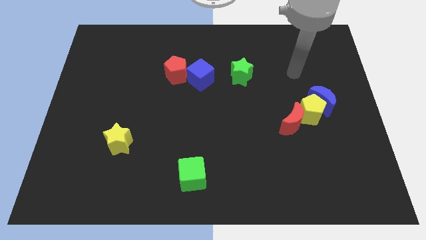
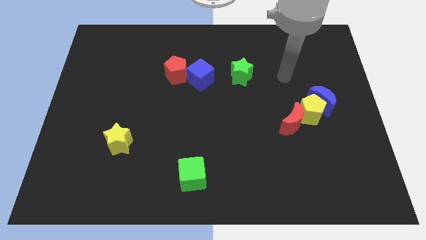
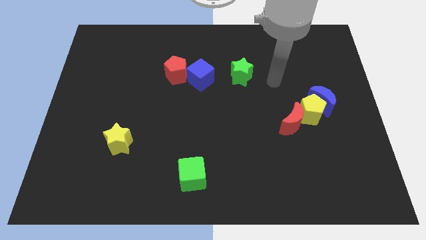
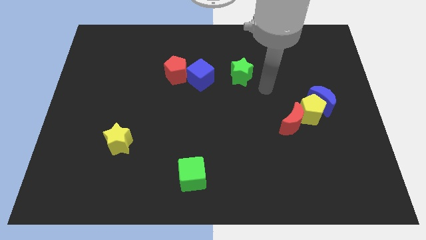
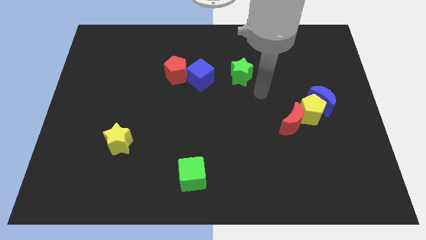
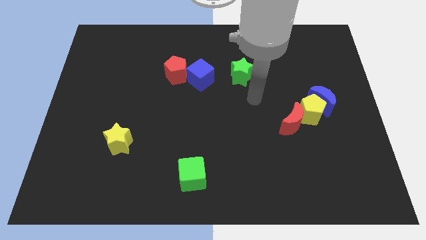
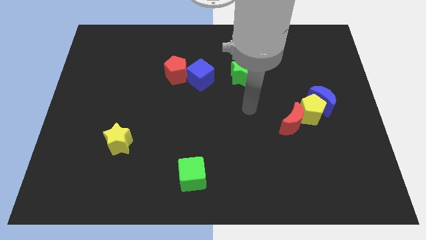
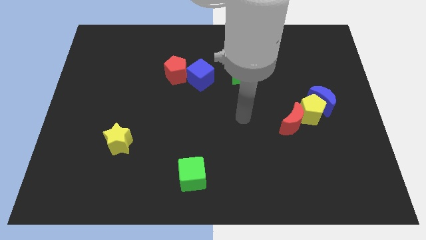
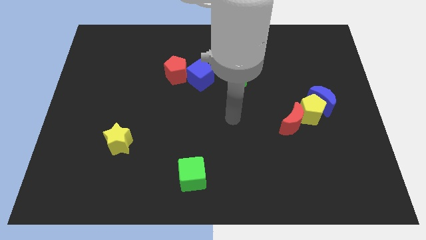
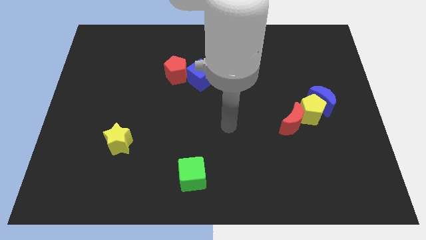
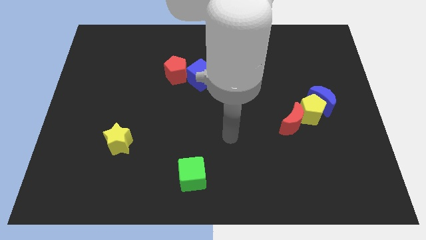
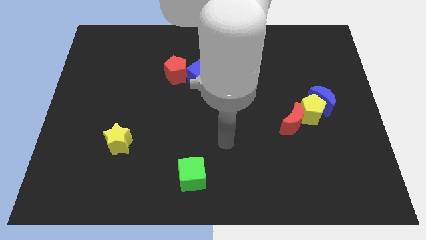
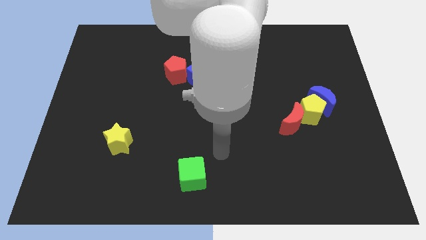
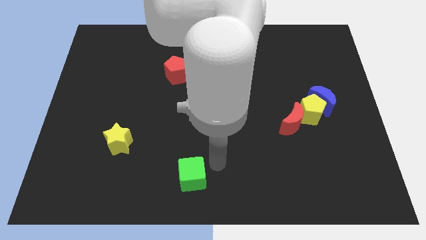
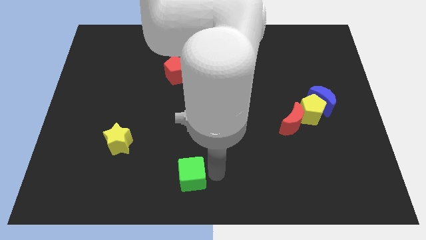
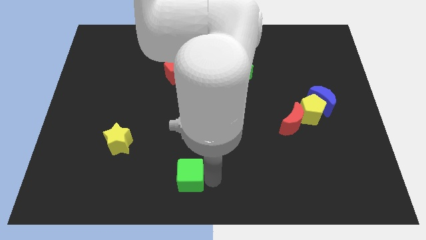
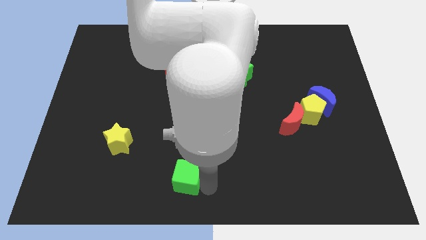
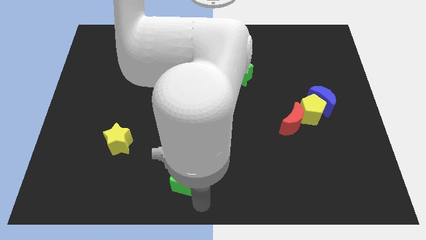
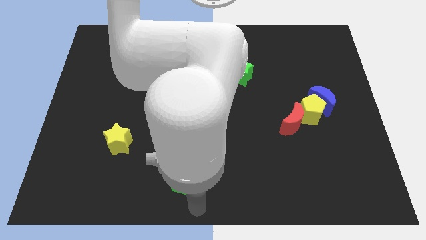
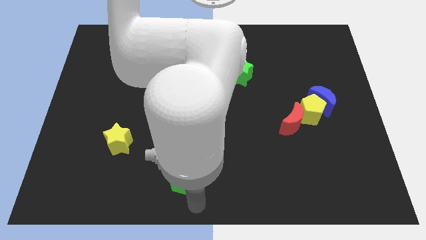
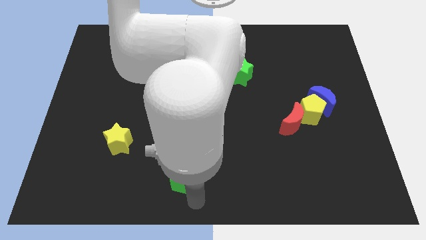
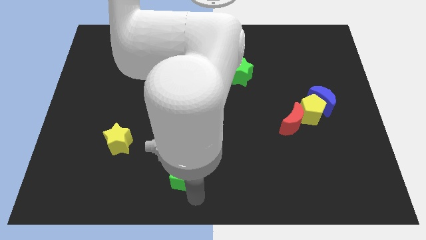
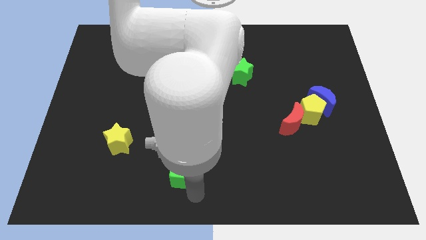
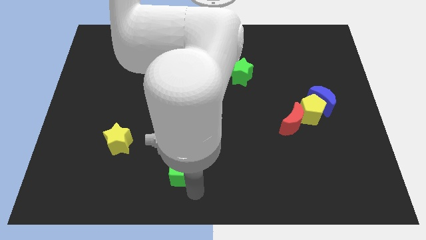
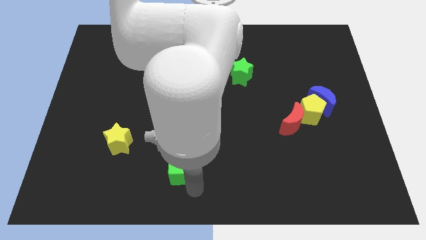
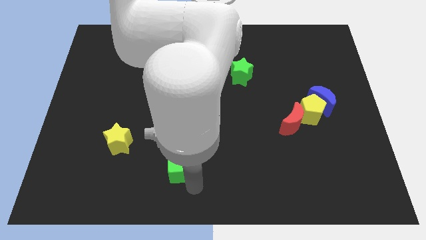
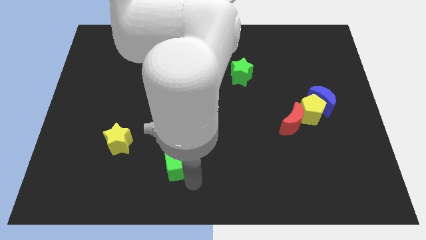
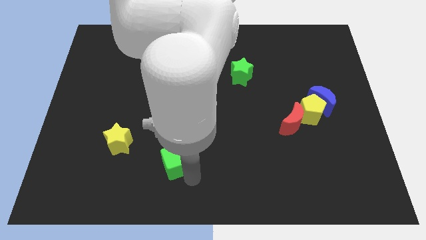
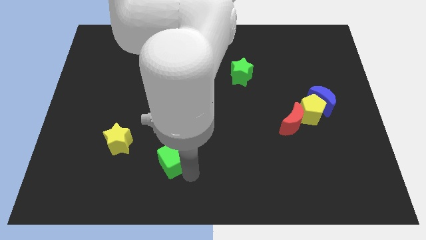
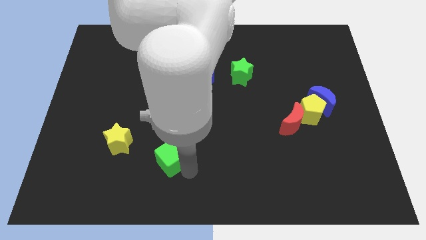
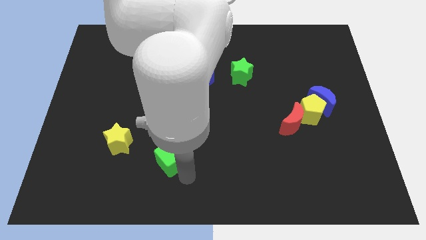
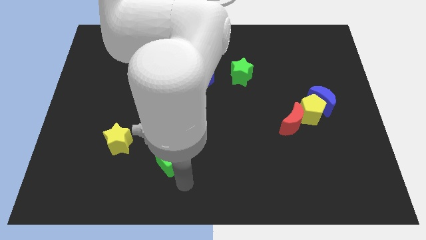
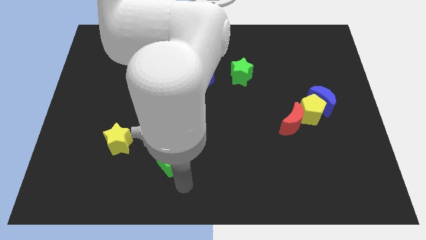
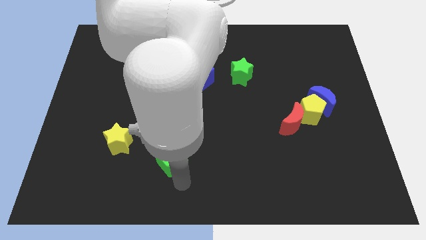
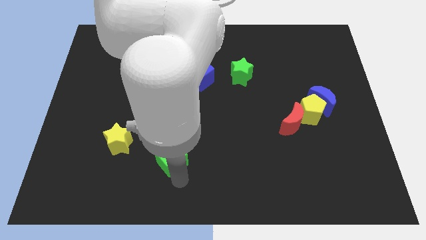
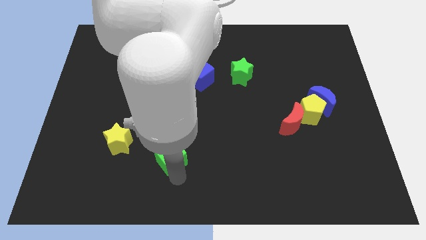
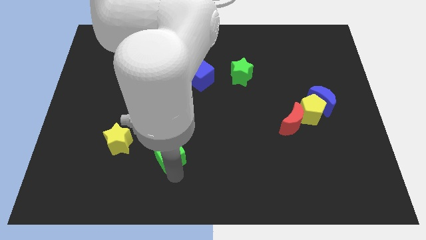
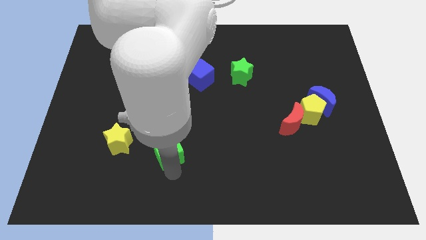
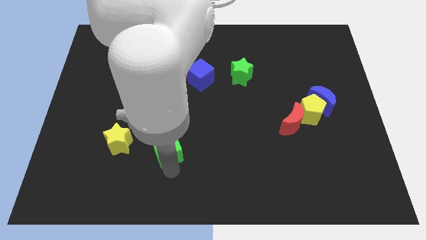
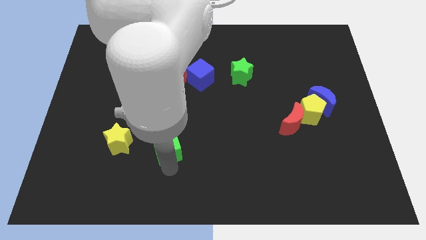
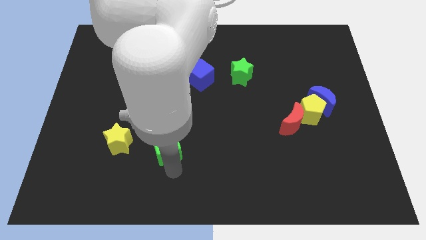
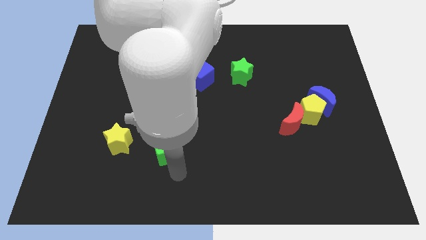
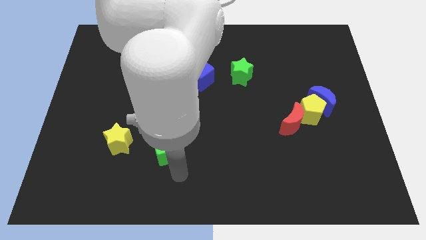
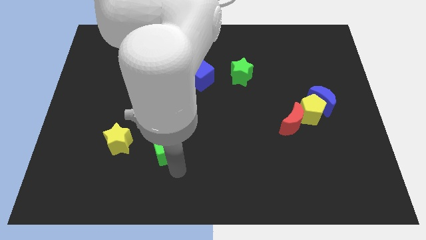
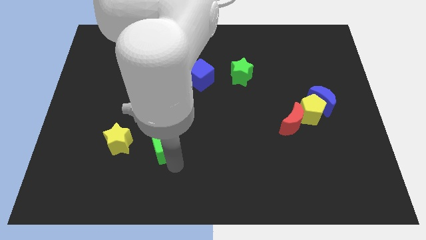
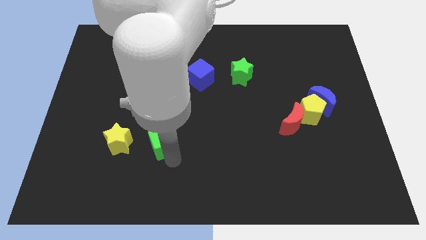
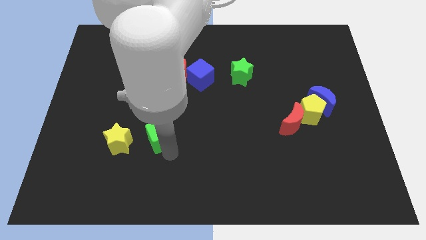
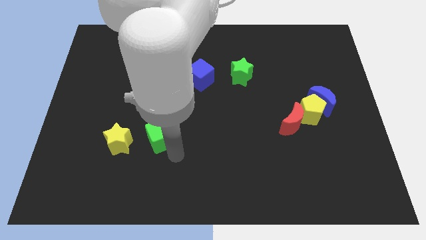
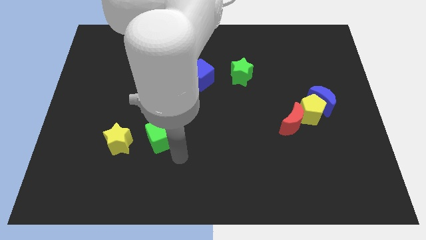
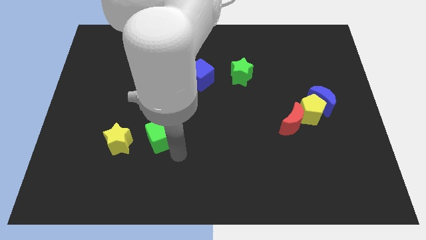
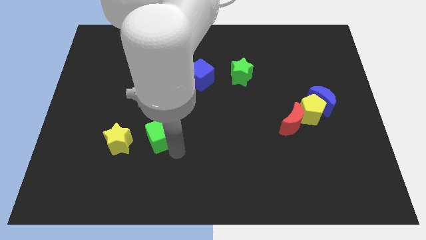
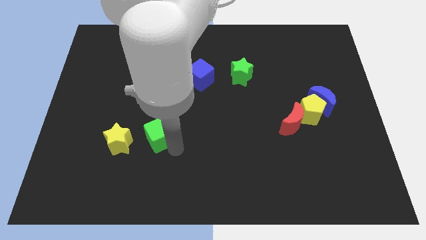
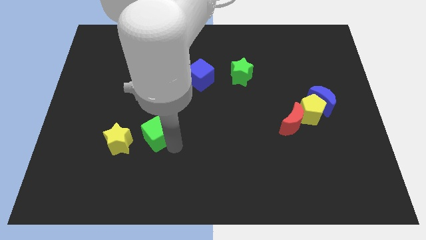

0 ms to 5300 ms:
slide the green cube to the top right of the yellow star

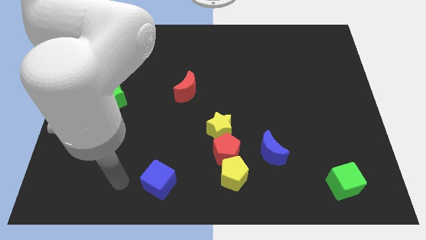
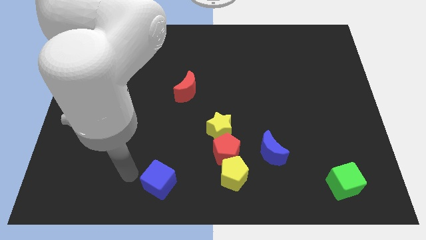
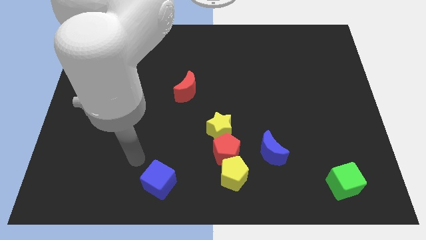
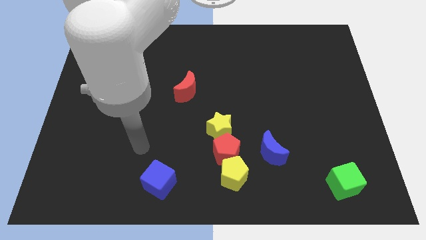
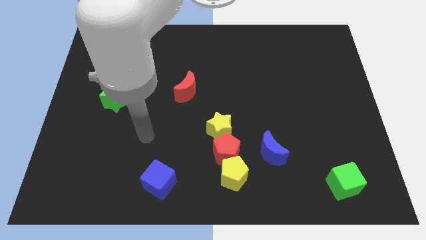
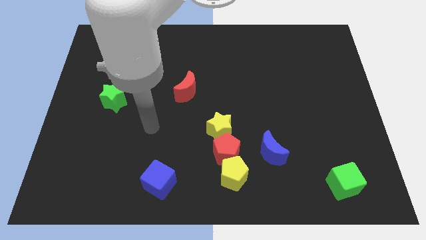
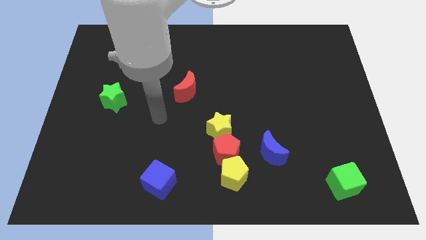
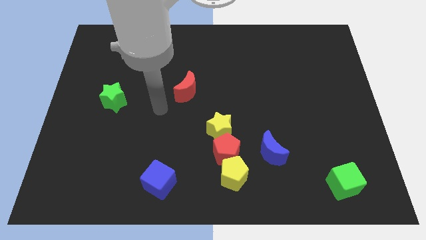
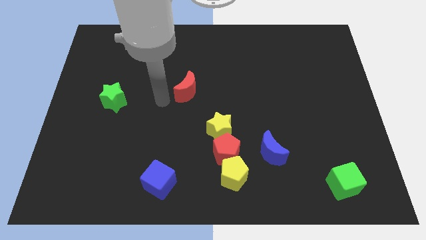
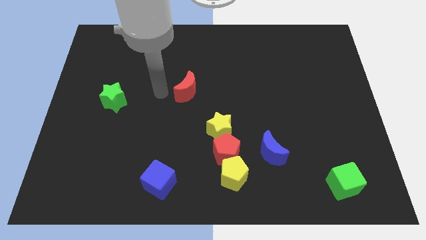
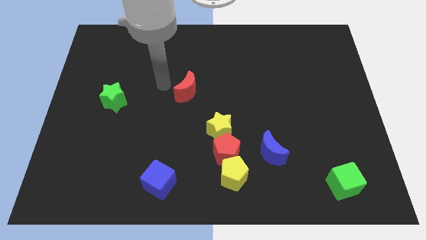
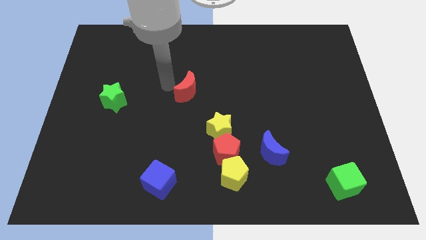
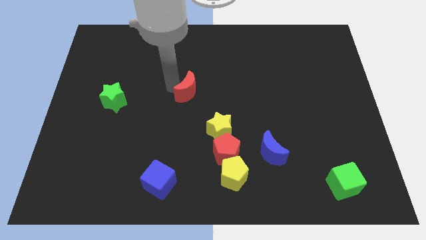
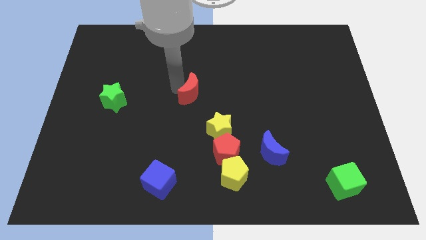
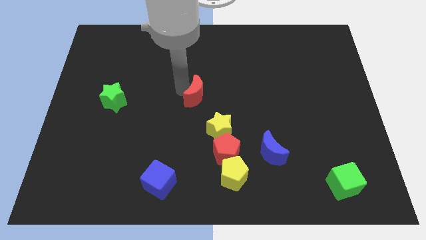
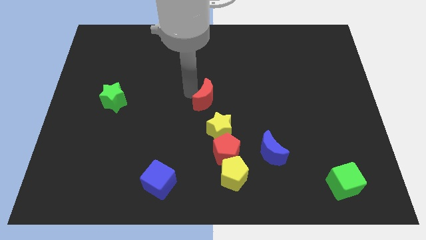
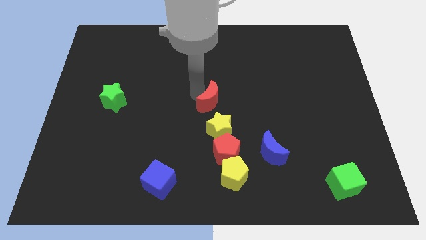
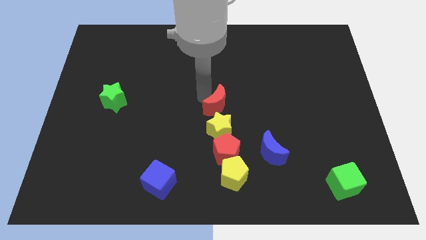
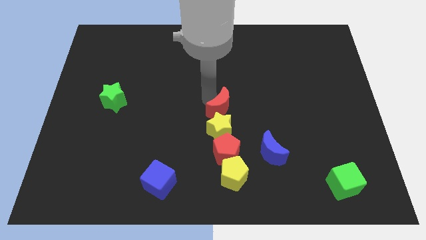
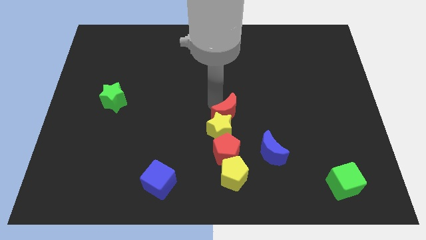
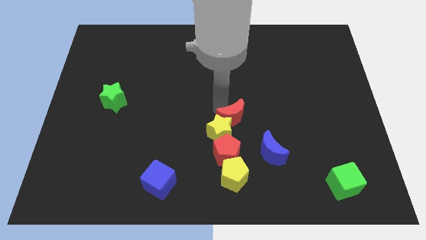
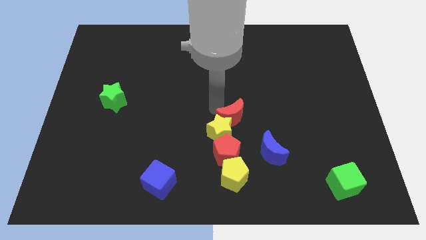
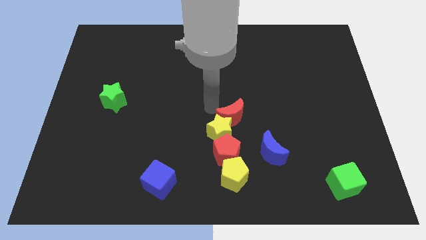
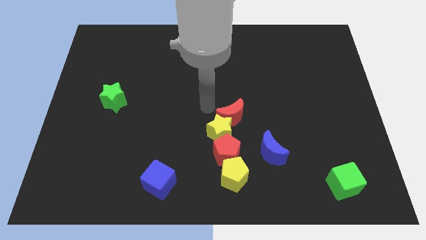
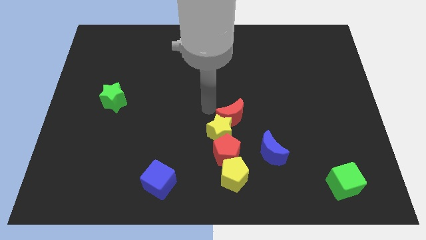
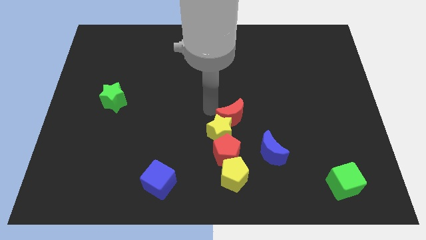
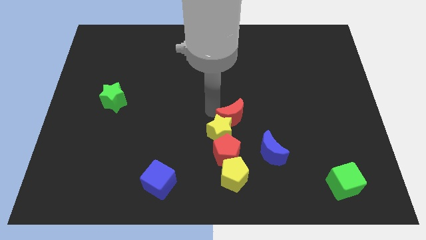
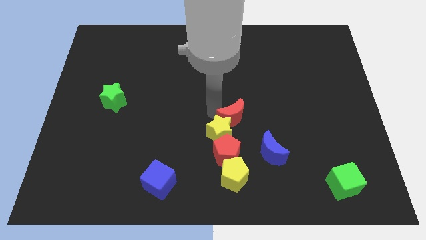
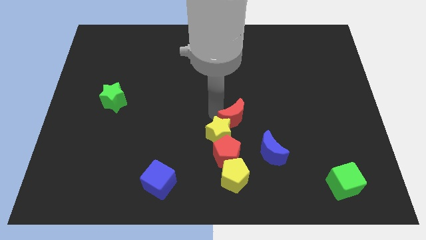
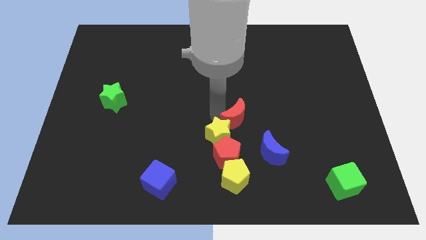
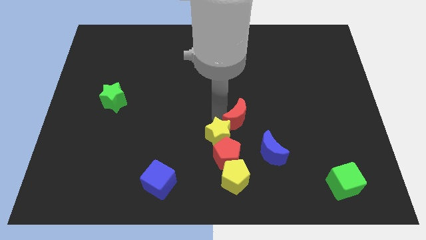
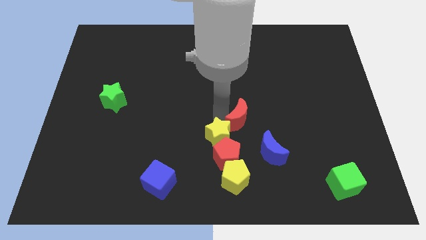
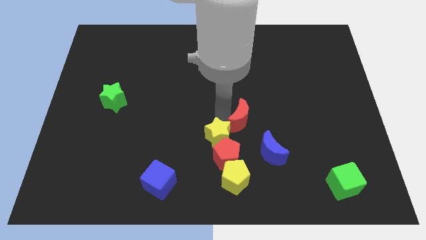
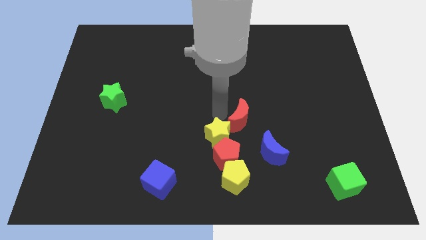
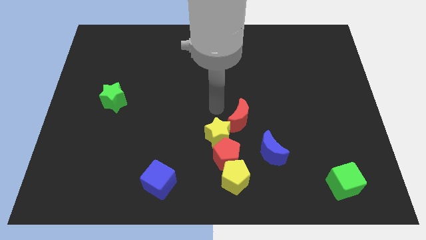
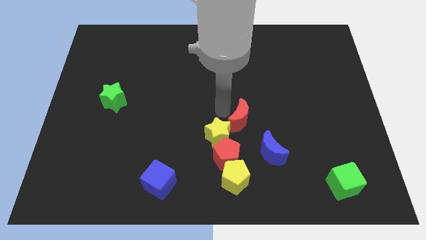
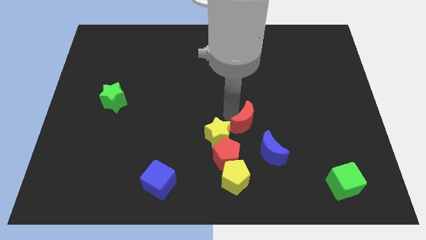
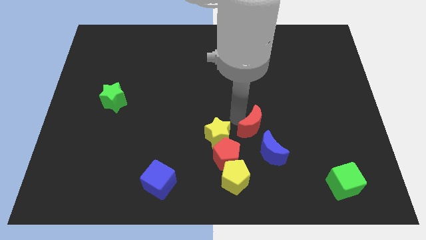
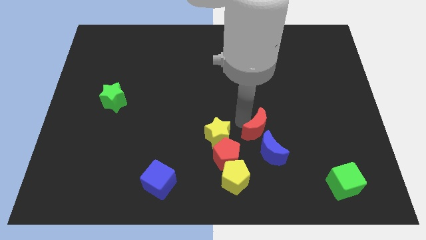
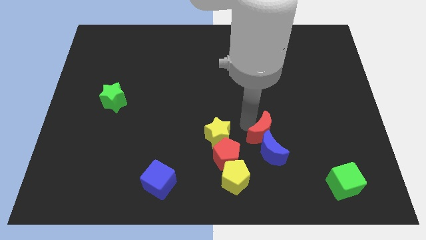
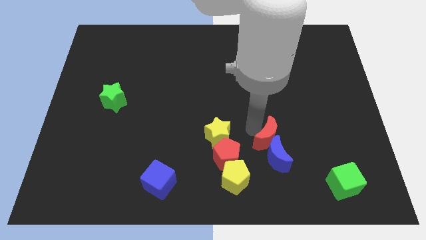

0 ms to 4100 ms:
move the red moon to the right side of the red pentagon
